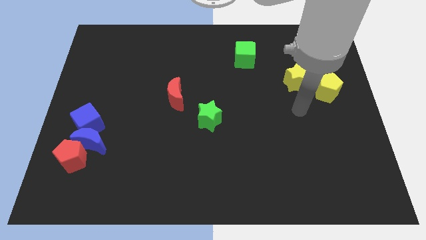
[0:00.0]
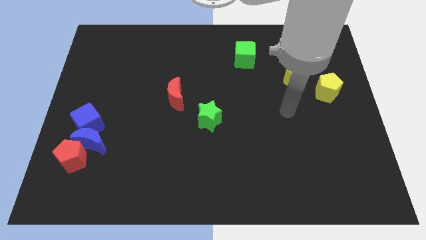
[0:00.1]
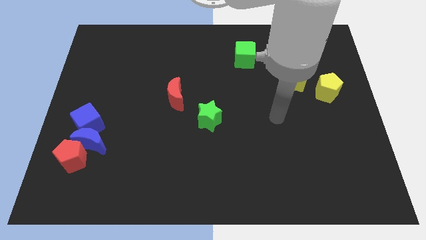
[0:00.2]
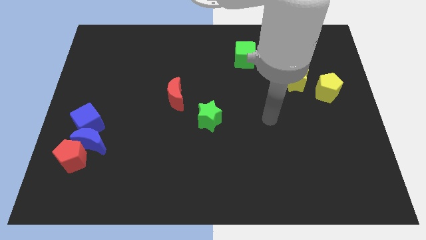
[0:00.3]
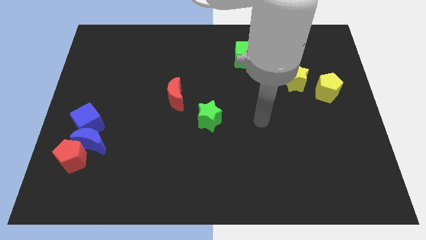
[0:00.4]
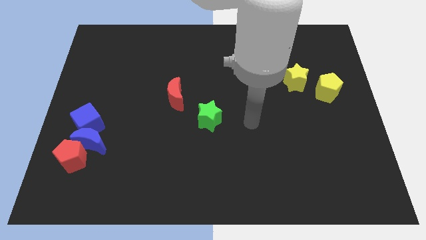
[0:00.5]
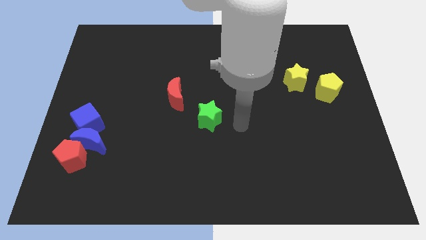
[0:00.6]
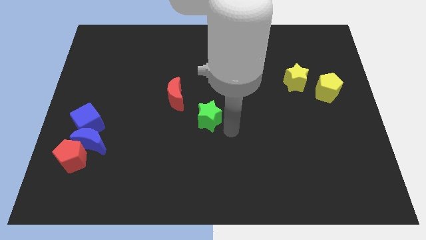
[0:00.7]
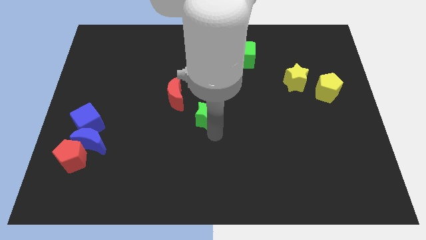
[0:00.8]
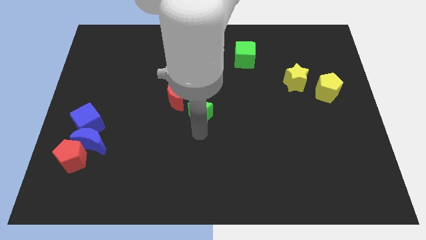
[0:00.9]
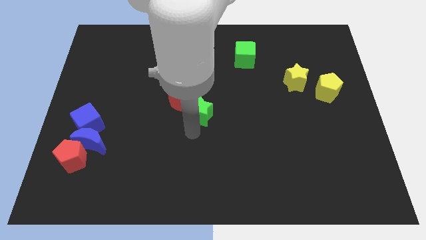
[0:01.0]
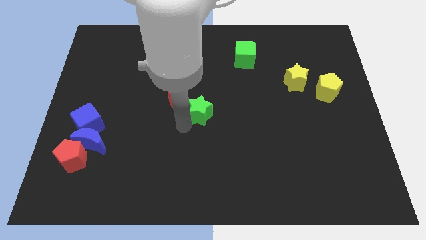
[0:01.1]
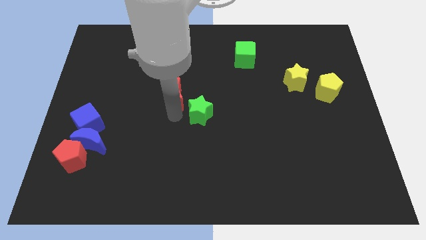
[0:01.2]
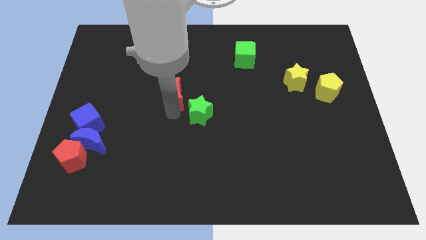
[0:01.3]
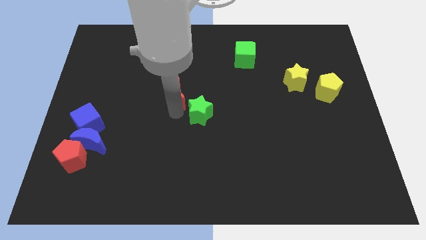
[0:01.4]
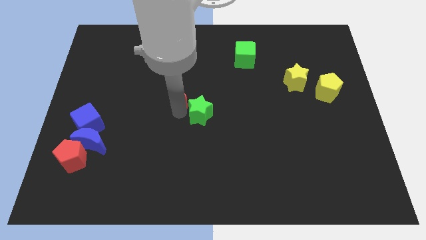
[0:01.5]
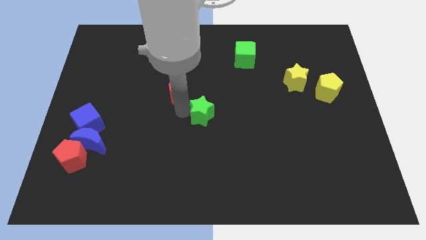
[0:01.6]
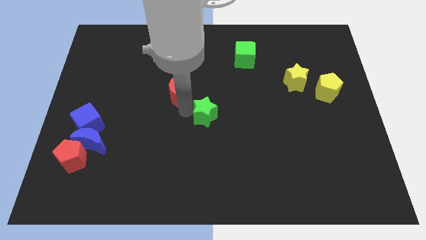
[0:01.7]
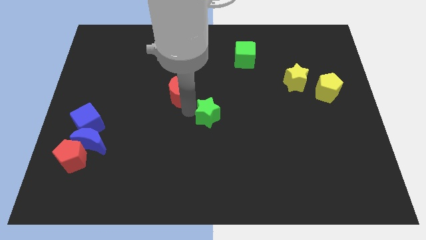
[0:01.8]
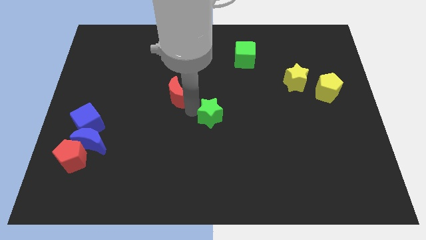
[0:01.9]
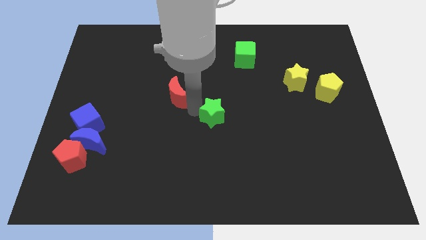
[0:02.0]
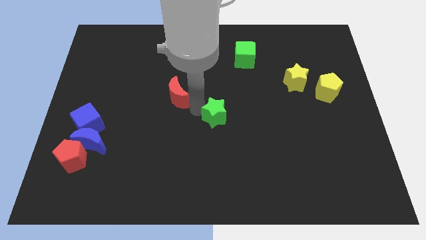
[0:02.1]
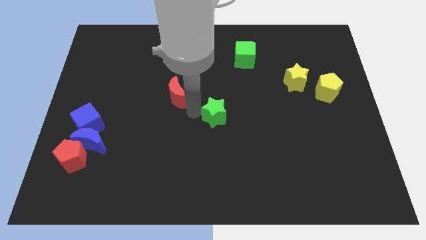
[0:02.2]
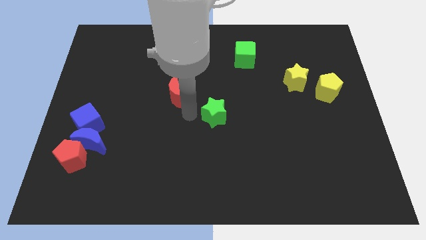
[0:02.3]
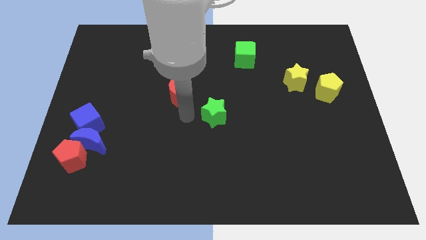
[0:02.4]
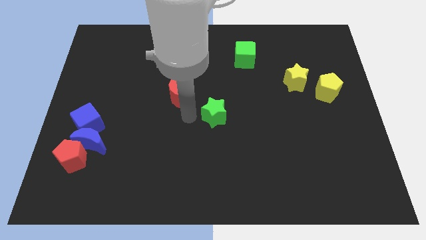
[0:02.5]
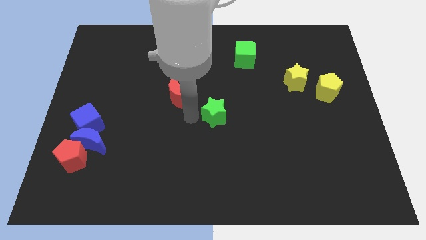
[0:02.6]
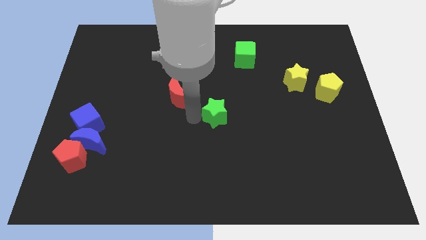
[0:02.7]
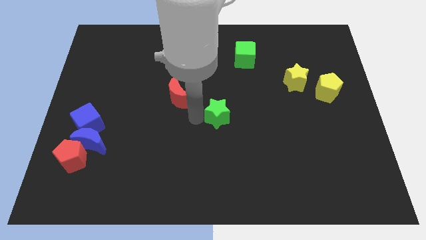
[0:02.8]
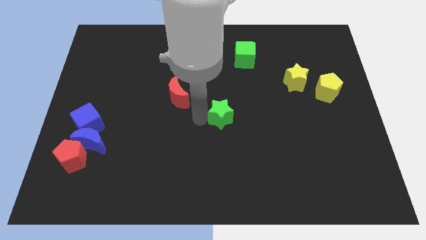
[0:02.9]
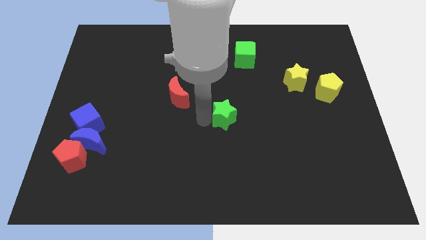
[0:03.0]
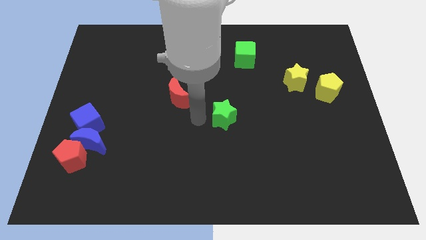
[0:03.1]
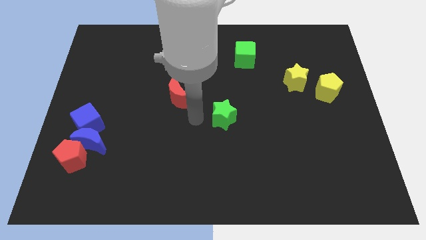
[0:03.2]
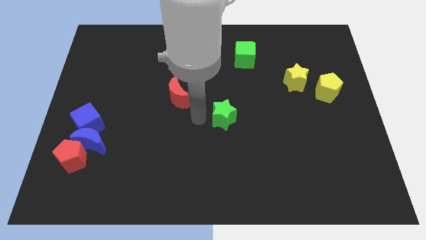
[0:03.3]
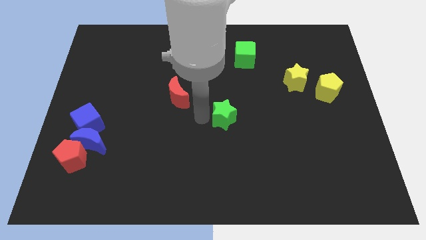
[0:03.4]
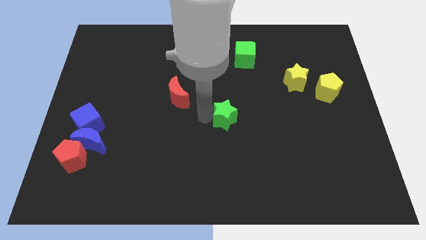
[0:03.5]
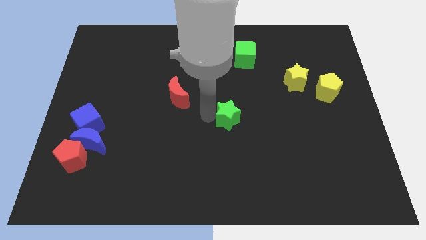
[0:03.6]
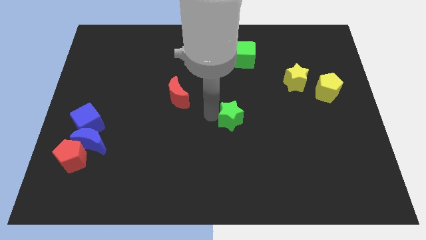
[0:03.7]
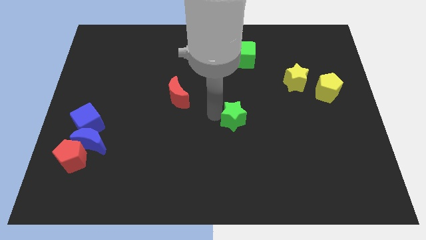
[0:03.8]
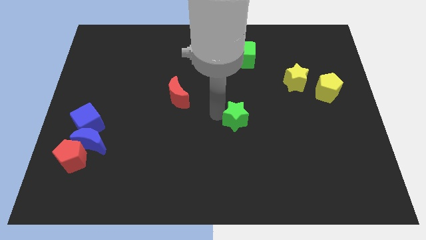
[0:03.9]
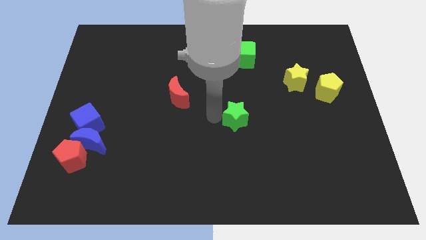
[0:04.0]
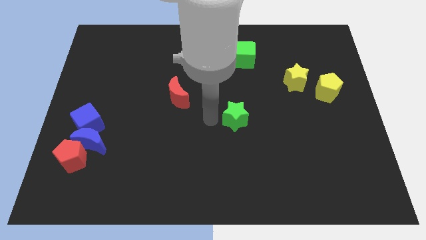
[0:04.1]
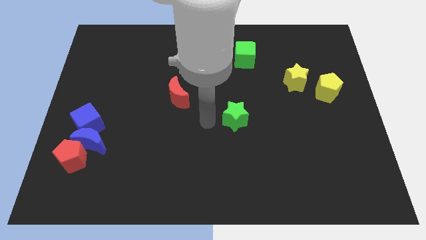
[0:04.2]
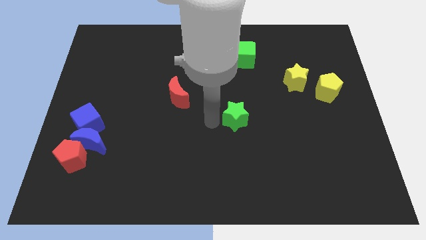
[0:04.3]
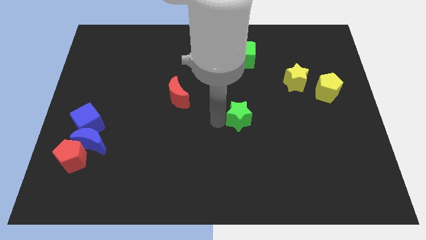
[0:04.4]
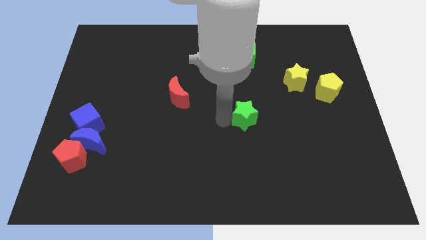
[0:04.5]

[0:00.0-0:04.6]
push the green star somewhat to the right

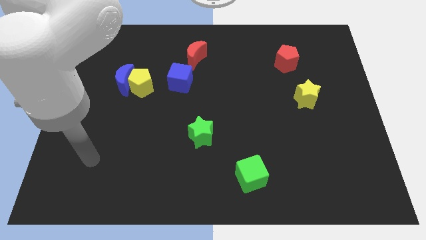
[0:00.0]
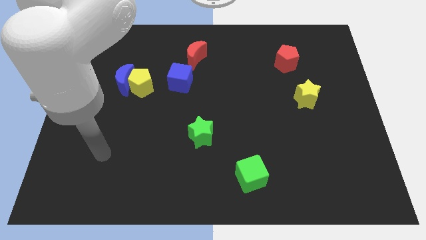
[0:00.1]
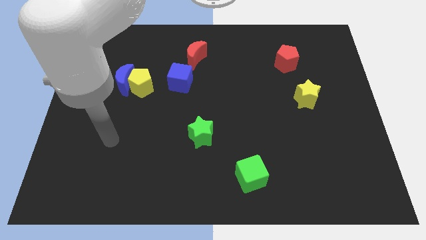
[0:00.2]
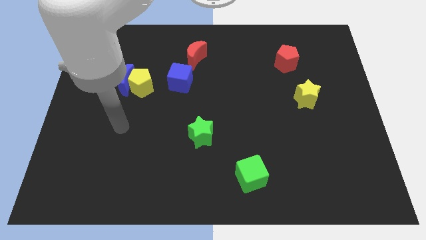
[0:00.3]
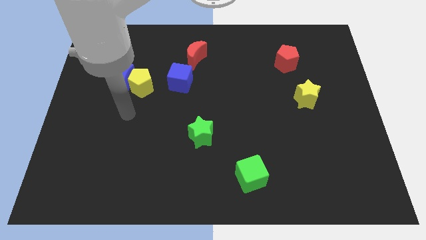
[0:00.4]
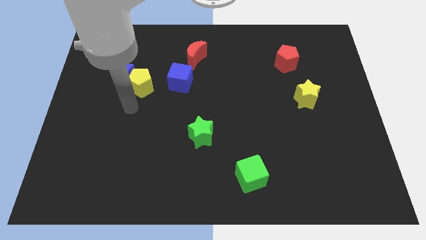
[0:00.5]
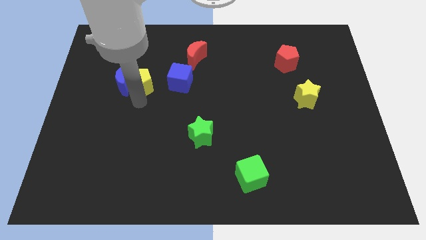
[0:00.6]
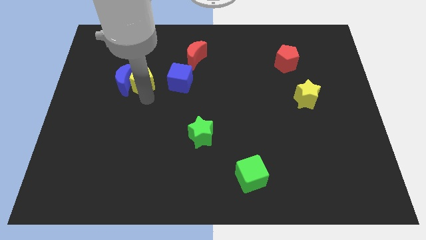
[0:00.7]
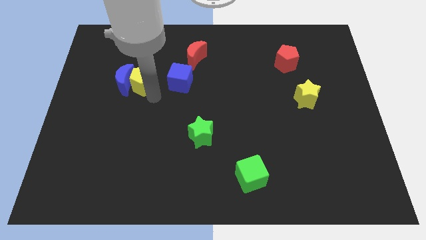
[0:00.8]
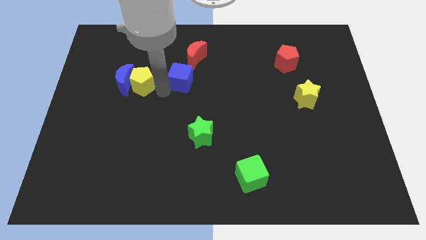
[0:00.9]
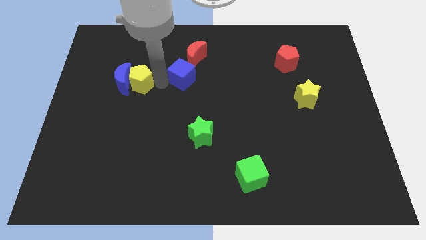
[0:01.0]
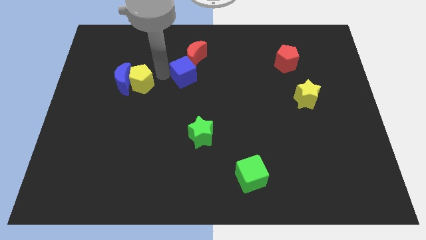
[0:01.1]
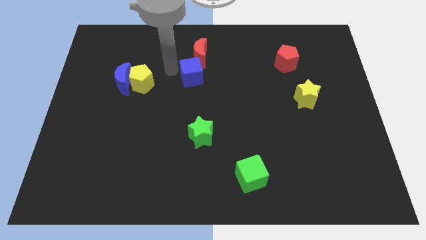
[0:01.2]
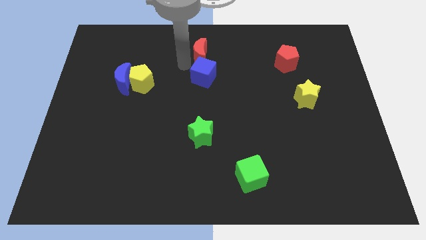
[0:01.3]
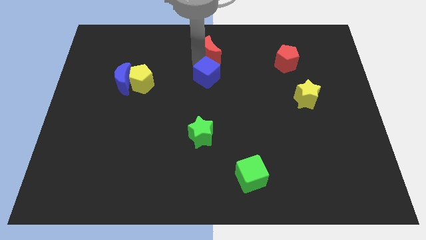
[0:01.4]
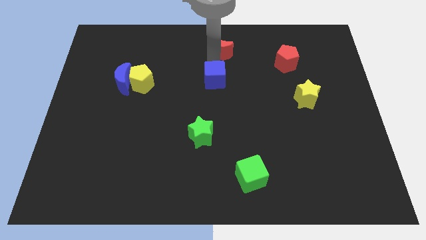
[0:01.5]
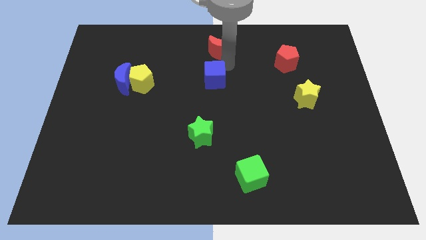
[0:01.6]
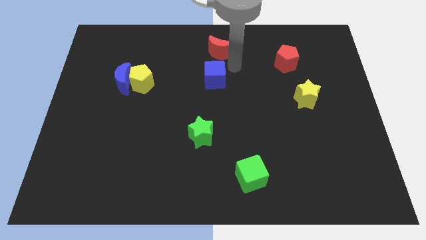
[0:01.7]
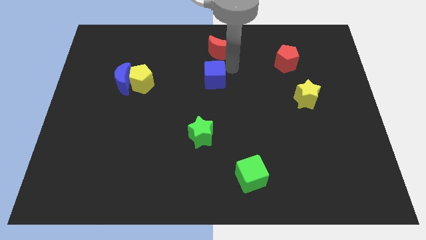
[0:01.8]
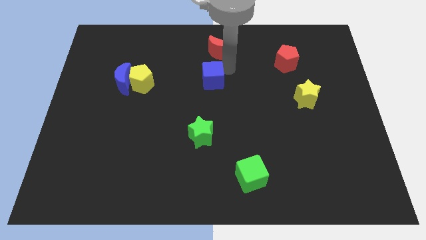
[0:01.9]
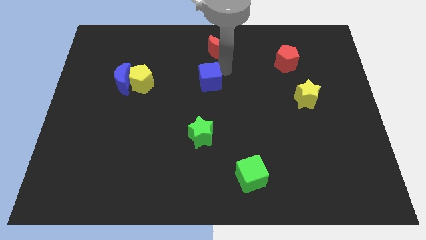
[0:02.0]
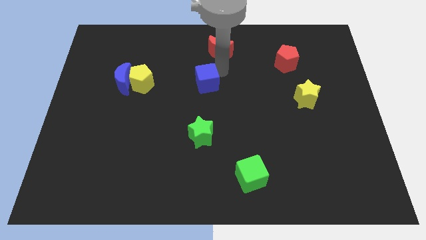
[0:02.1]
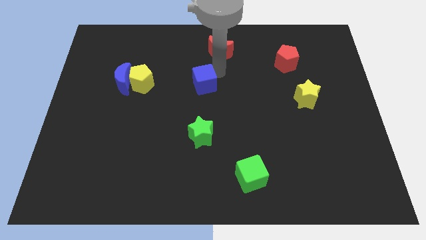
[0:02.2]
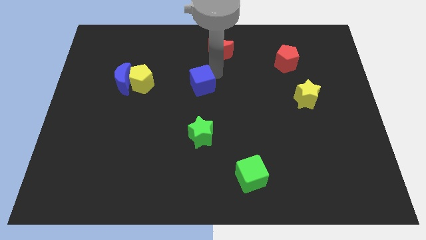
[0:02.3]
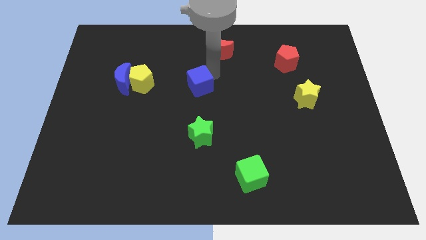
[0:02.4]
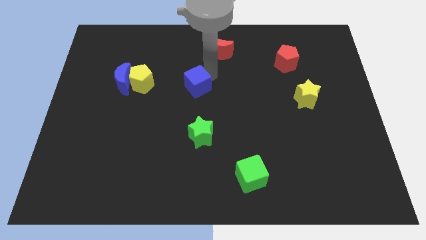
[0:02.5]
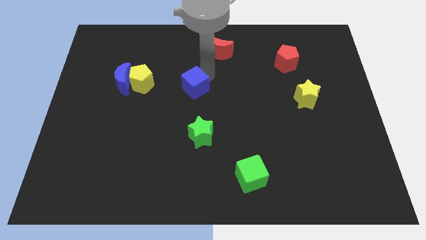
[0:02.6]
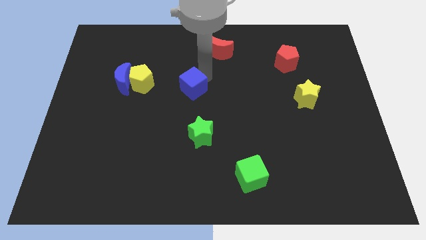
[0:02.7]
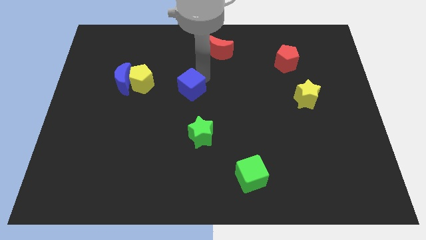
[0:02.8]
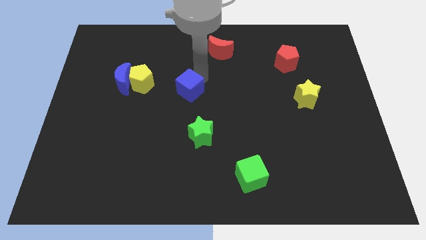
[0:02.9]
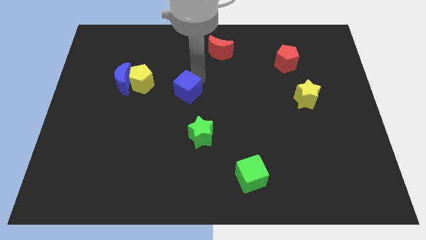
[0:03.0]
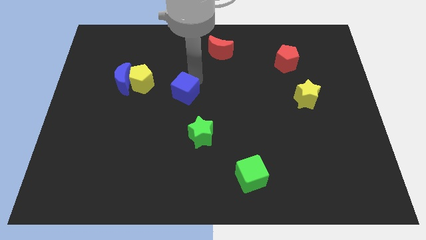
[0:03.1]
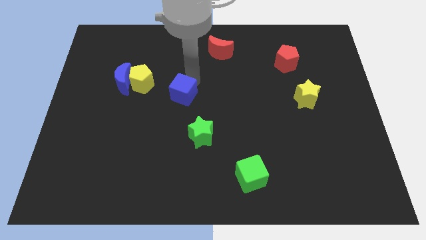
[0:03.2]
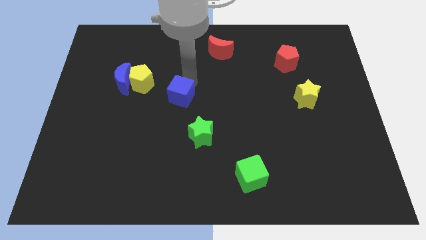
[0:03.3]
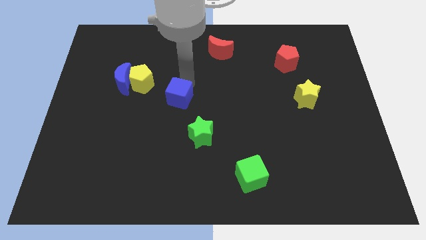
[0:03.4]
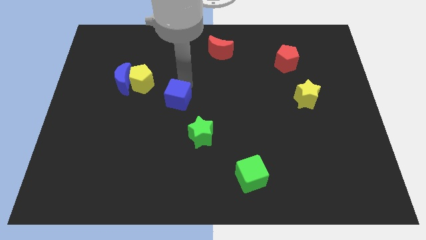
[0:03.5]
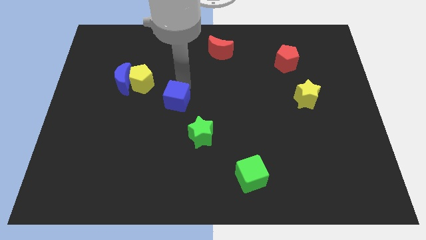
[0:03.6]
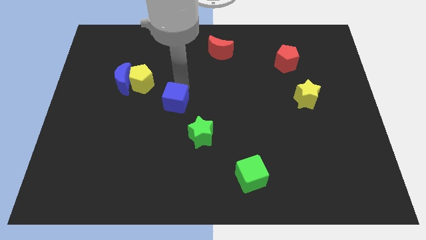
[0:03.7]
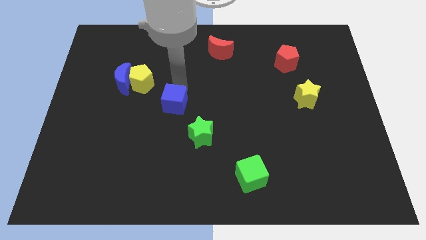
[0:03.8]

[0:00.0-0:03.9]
slide the blue cube down a little
